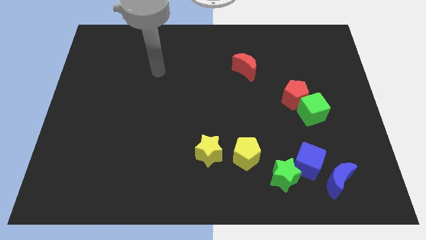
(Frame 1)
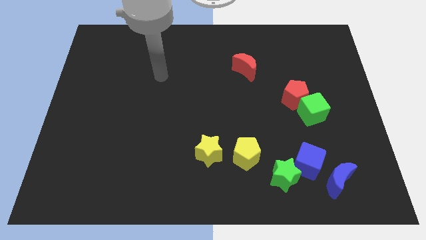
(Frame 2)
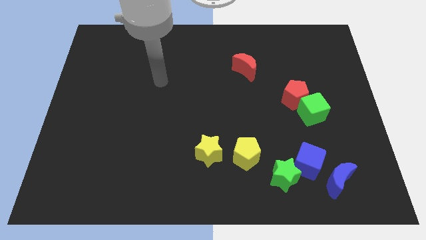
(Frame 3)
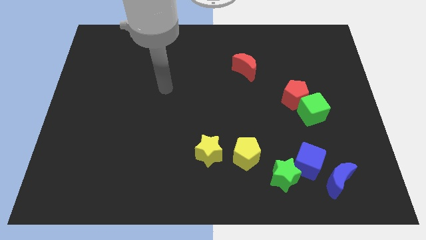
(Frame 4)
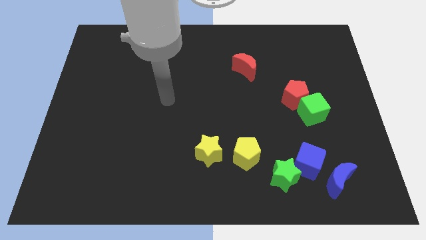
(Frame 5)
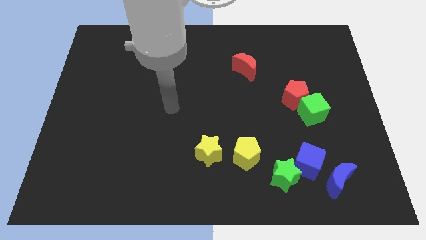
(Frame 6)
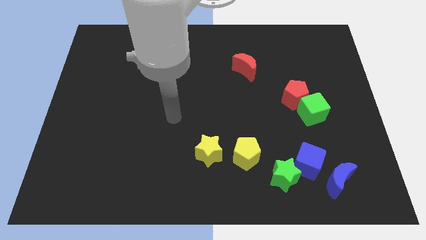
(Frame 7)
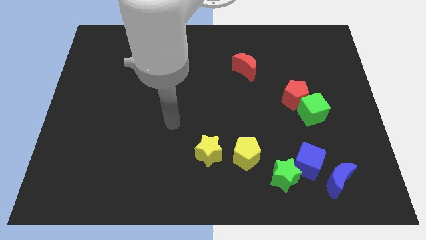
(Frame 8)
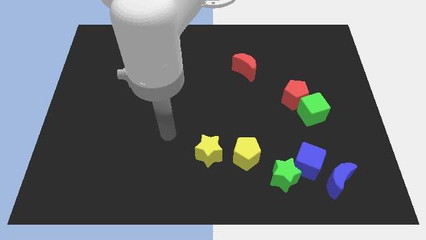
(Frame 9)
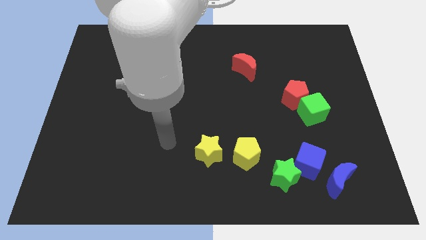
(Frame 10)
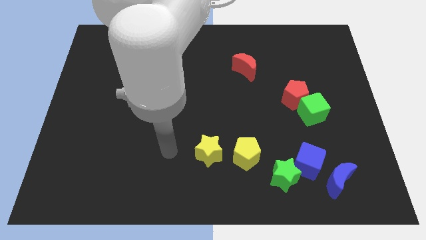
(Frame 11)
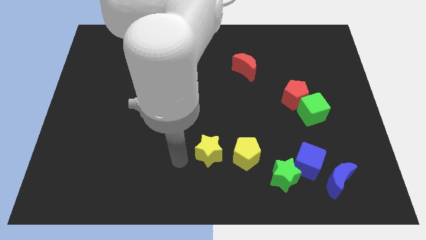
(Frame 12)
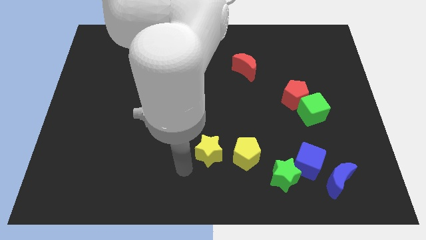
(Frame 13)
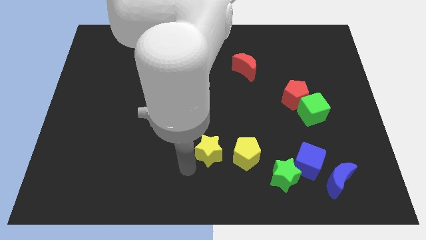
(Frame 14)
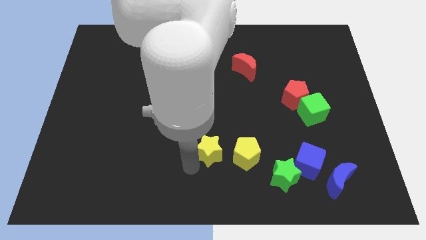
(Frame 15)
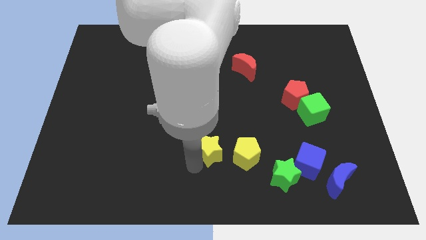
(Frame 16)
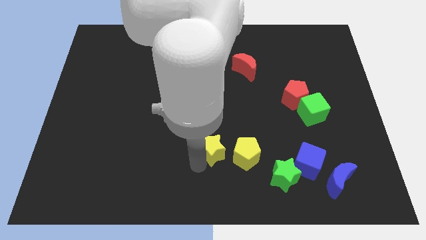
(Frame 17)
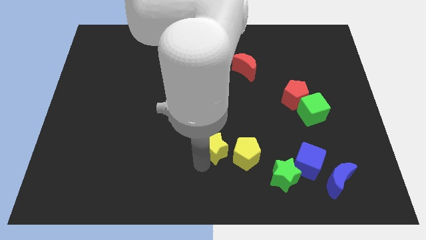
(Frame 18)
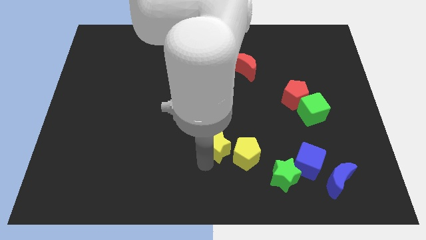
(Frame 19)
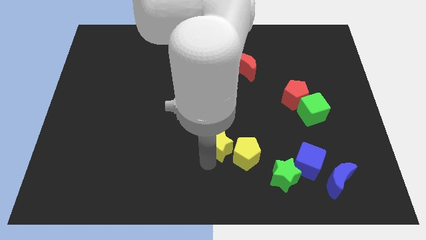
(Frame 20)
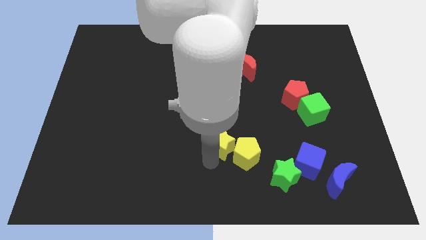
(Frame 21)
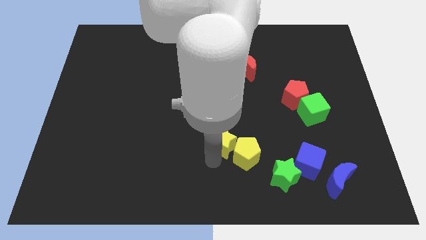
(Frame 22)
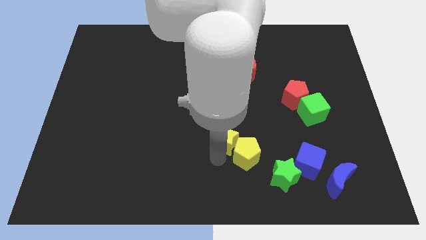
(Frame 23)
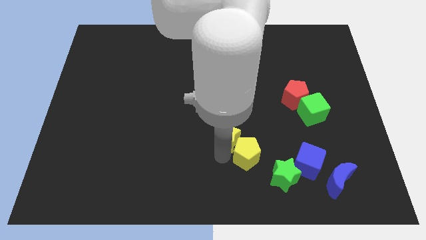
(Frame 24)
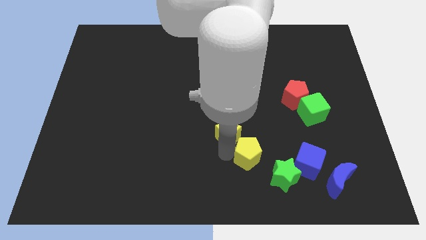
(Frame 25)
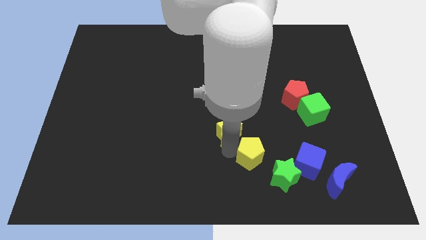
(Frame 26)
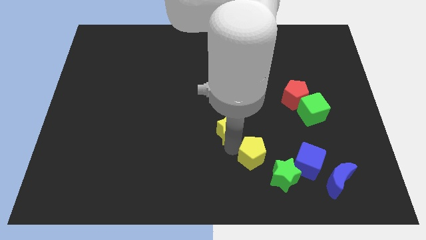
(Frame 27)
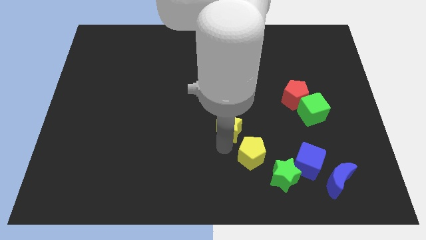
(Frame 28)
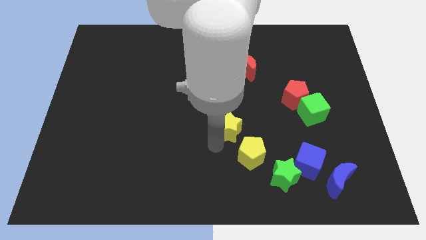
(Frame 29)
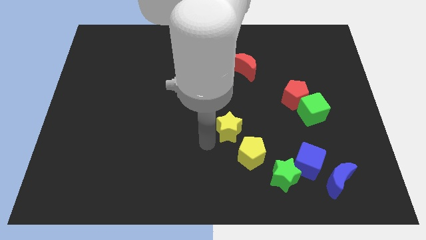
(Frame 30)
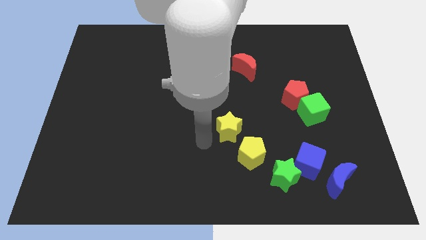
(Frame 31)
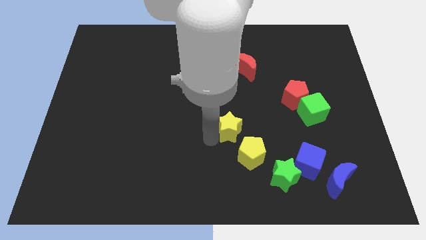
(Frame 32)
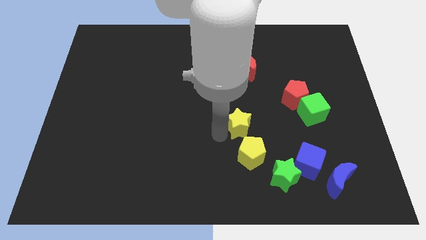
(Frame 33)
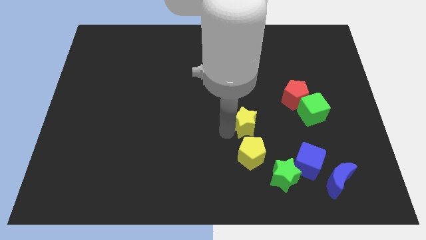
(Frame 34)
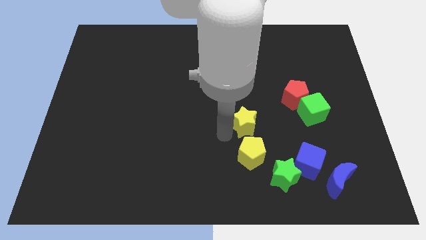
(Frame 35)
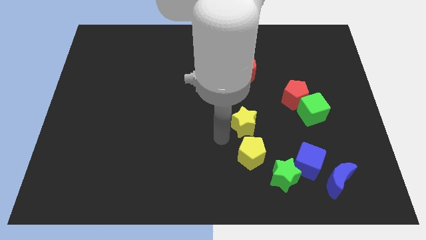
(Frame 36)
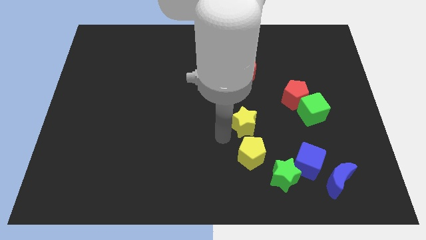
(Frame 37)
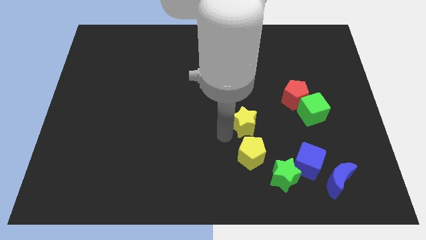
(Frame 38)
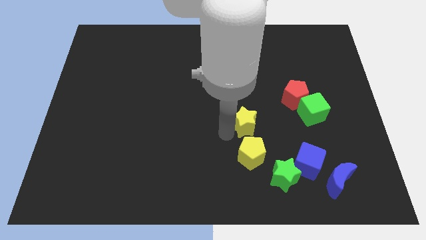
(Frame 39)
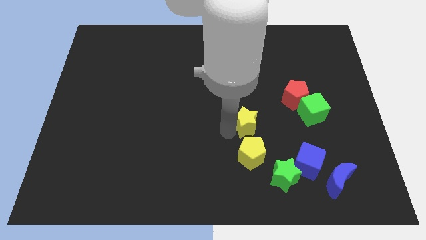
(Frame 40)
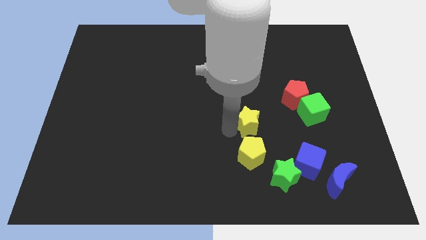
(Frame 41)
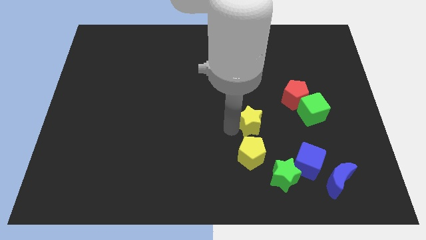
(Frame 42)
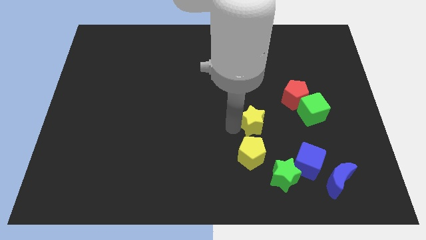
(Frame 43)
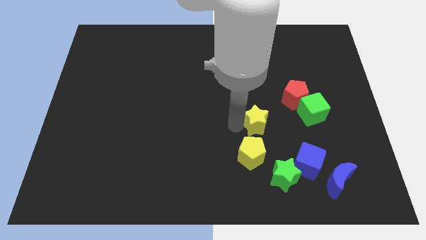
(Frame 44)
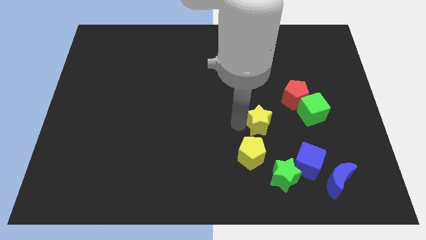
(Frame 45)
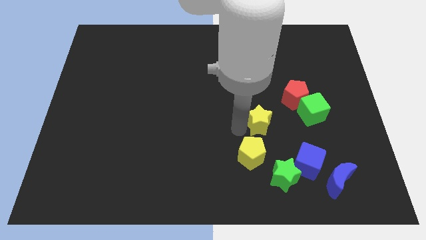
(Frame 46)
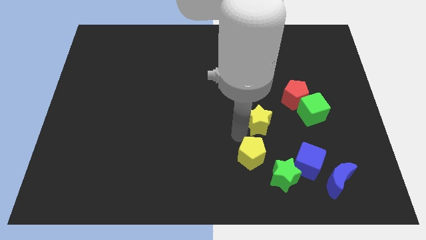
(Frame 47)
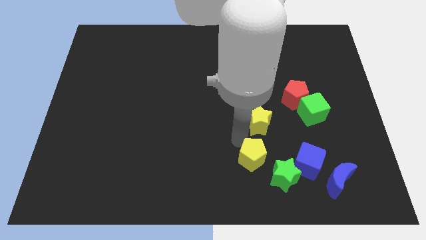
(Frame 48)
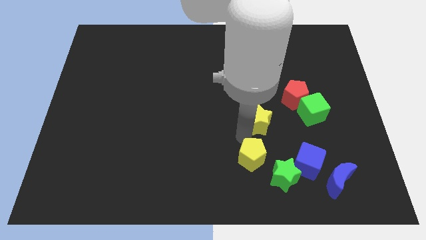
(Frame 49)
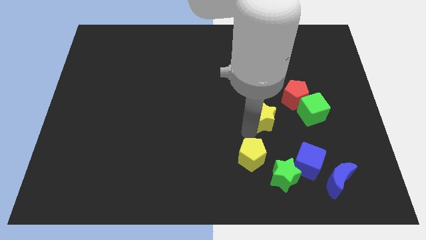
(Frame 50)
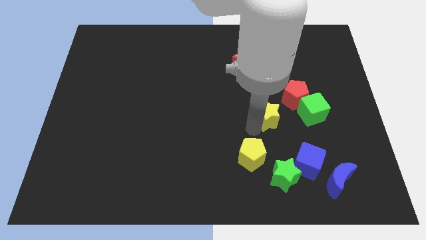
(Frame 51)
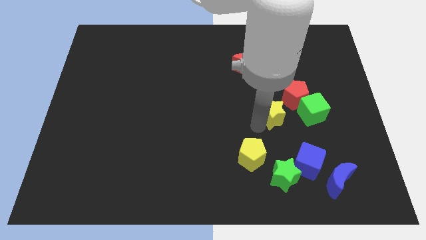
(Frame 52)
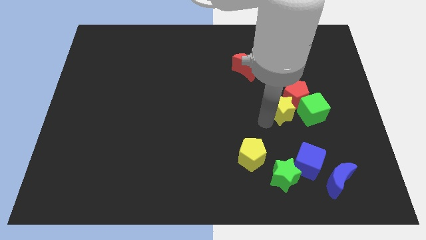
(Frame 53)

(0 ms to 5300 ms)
move the yellow star to the red pentagon

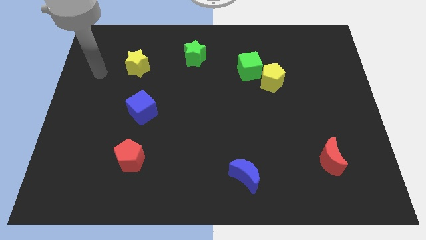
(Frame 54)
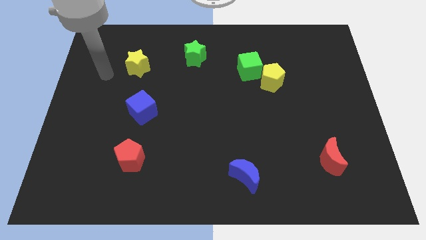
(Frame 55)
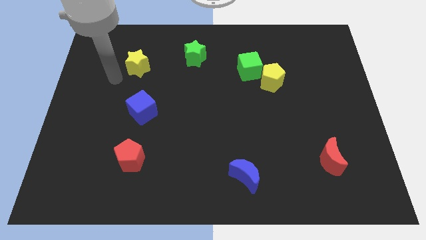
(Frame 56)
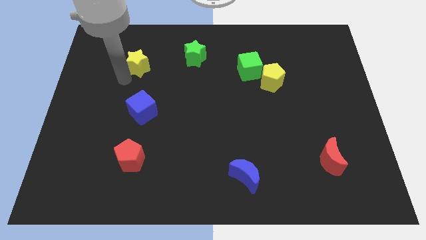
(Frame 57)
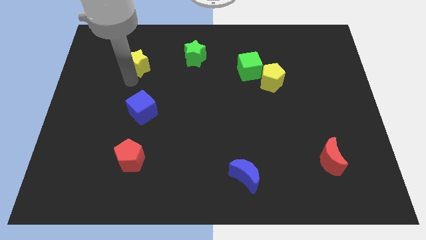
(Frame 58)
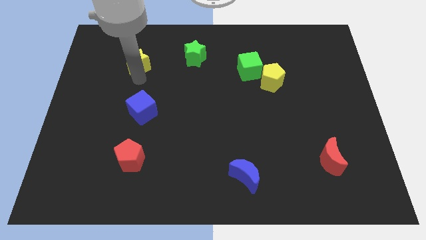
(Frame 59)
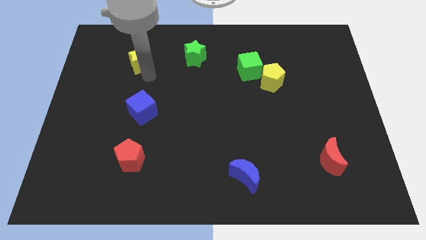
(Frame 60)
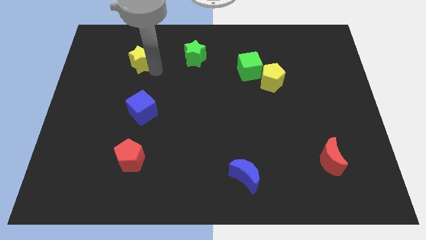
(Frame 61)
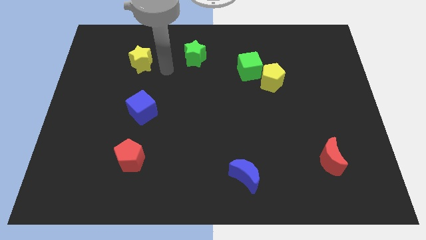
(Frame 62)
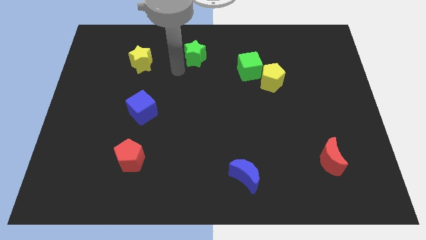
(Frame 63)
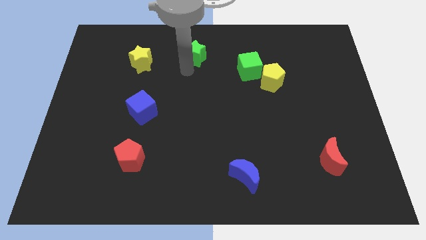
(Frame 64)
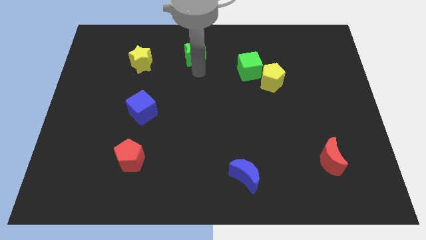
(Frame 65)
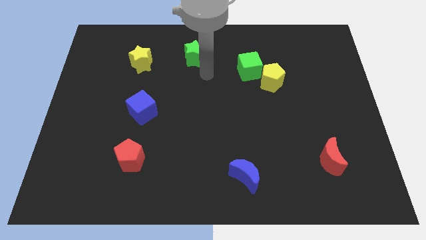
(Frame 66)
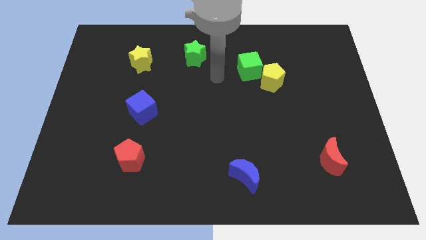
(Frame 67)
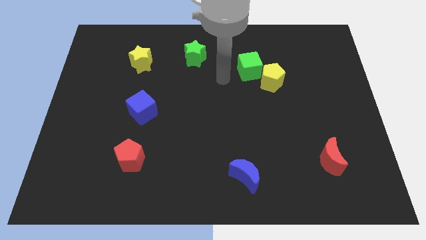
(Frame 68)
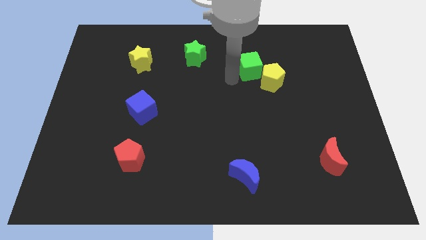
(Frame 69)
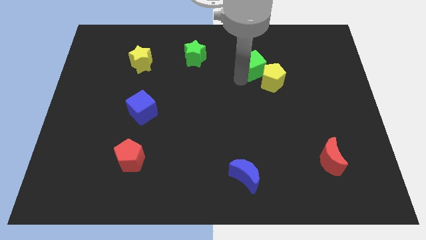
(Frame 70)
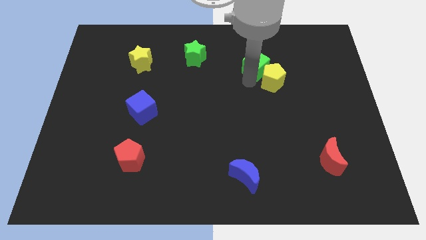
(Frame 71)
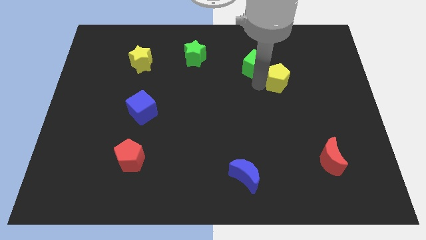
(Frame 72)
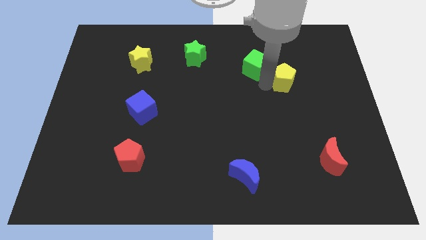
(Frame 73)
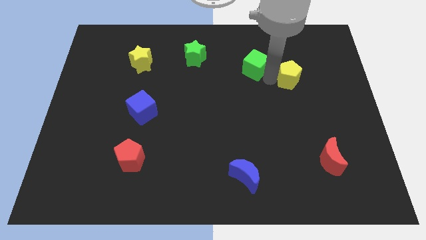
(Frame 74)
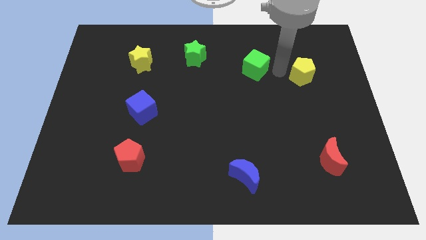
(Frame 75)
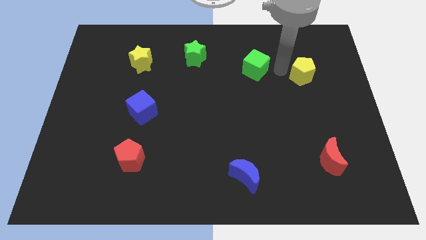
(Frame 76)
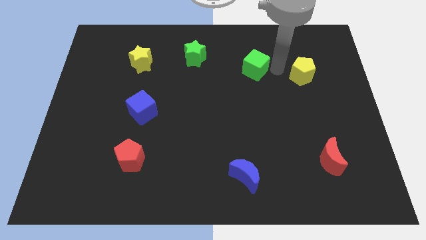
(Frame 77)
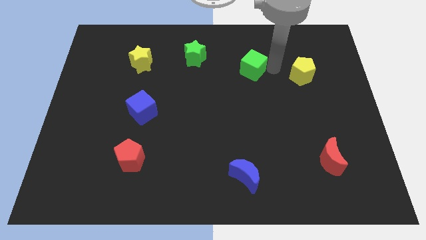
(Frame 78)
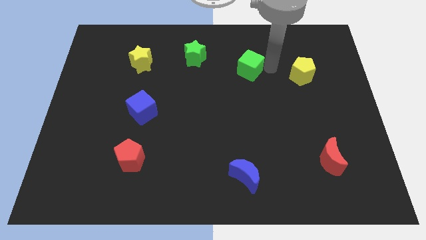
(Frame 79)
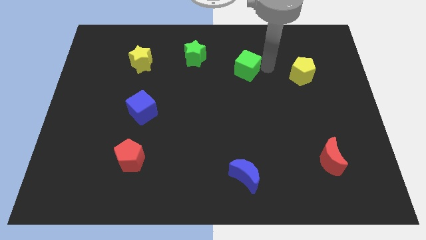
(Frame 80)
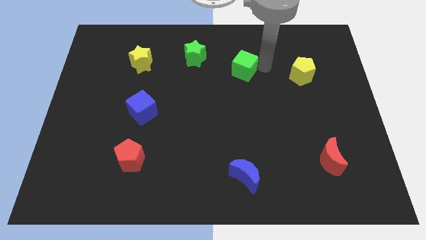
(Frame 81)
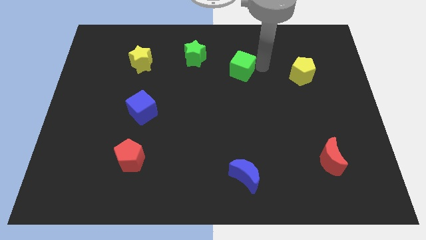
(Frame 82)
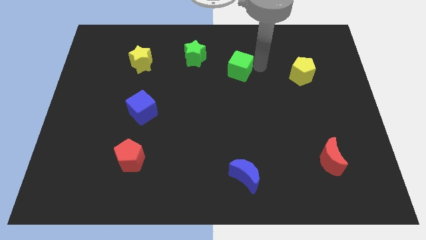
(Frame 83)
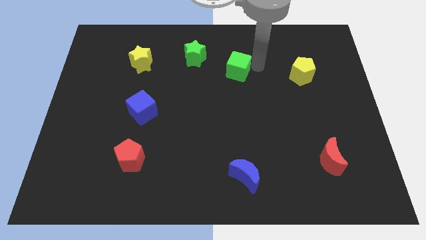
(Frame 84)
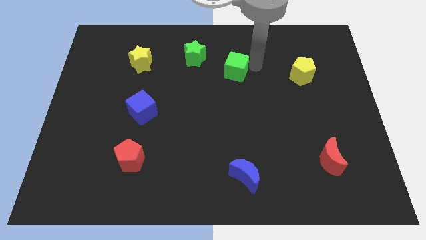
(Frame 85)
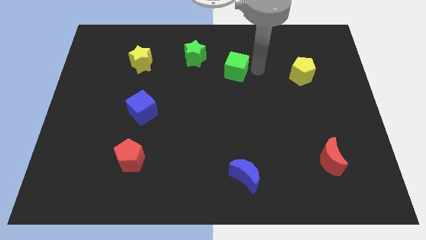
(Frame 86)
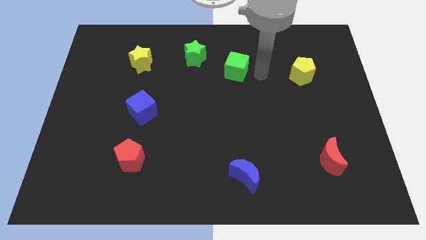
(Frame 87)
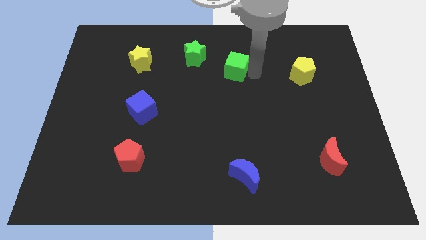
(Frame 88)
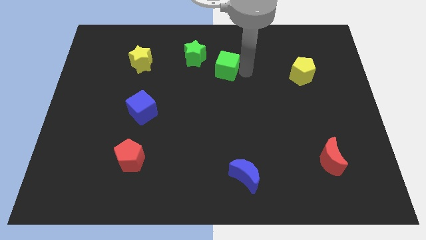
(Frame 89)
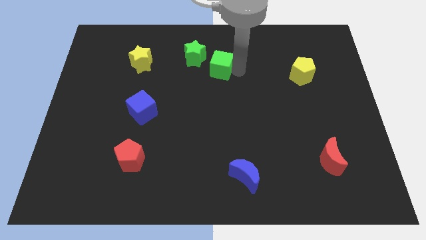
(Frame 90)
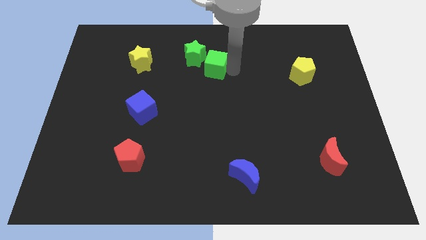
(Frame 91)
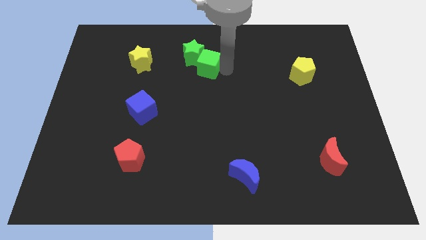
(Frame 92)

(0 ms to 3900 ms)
put the green cube to the green star
